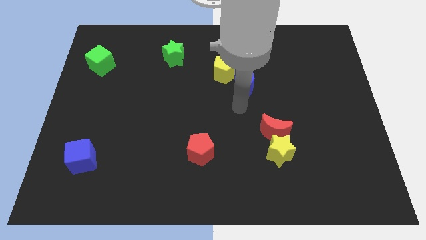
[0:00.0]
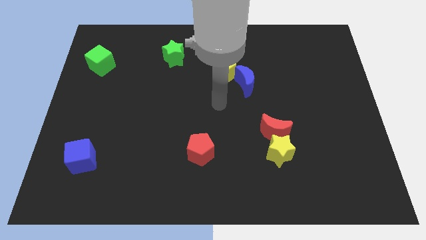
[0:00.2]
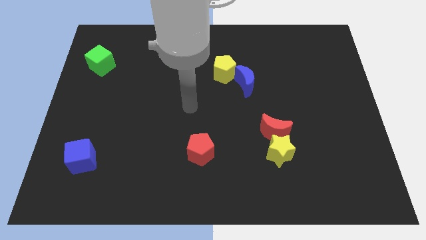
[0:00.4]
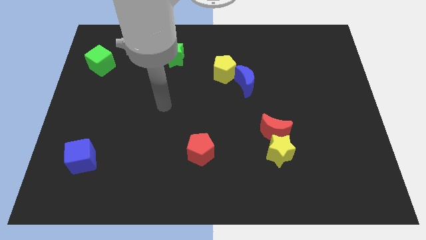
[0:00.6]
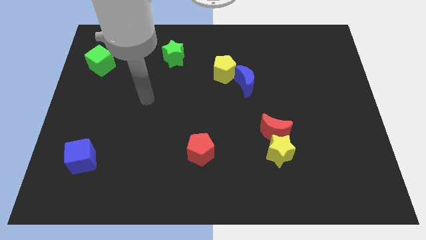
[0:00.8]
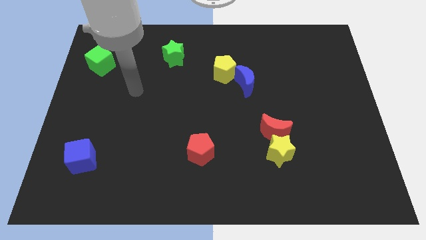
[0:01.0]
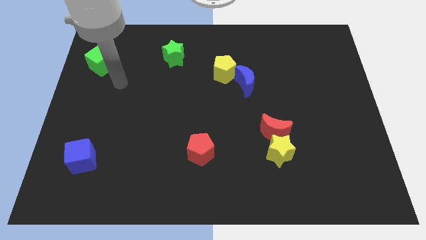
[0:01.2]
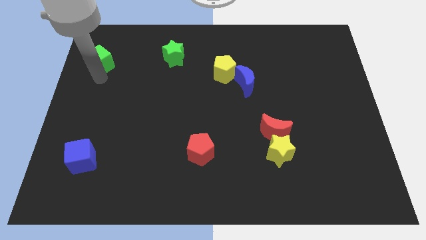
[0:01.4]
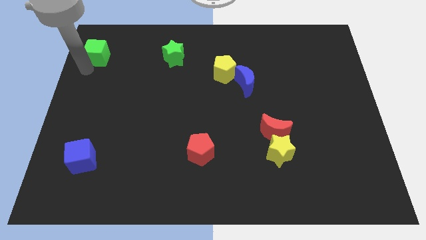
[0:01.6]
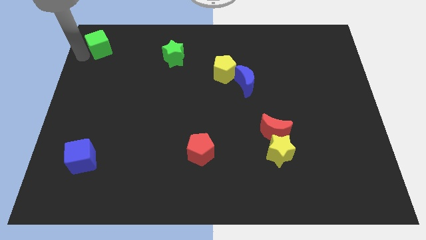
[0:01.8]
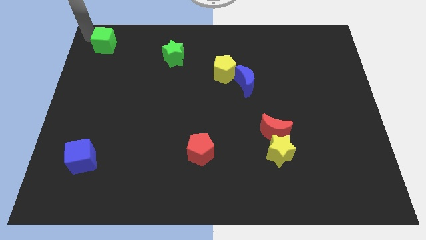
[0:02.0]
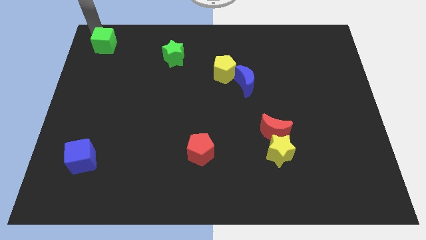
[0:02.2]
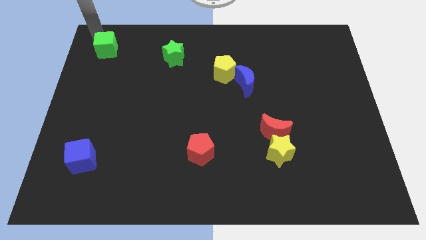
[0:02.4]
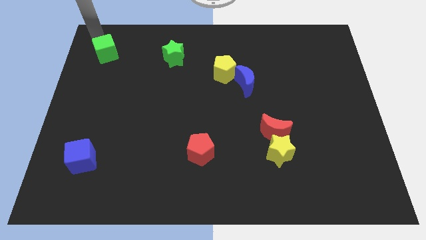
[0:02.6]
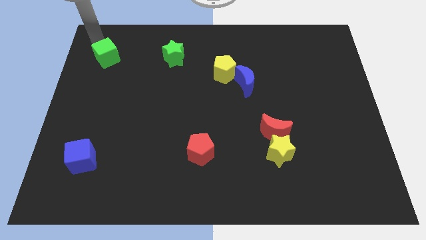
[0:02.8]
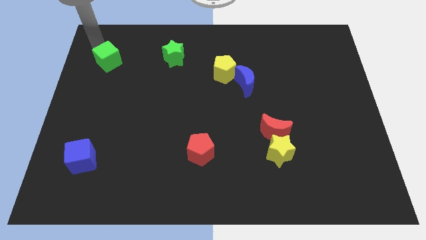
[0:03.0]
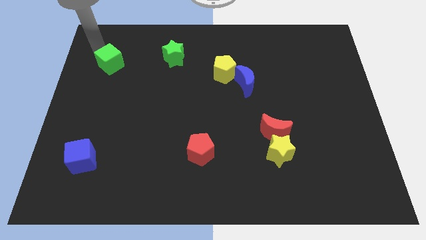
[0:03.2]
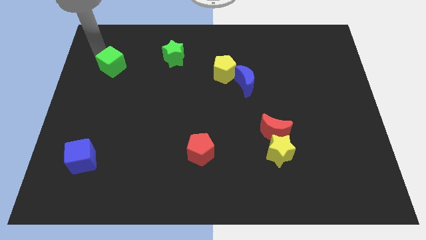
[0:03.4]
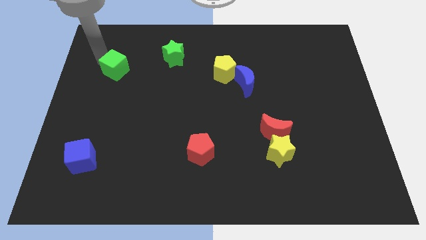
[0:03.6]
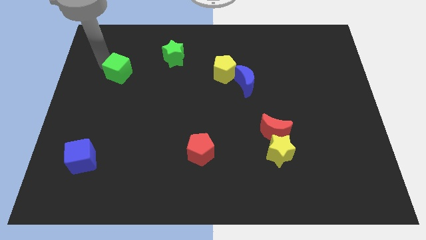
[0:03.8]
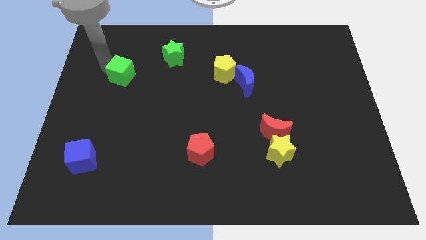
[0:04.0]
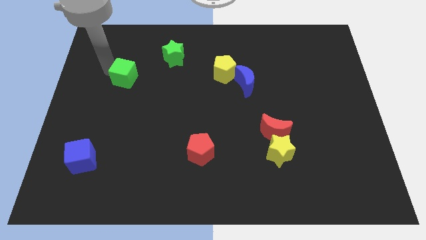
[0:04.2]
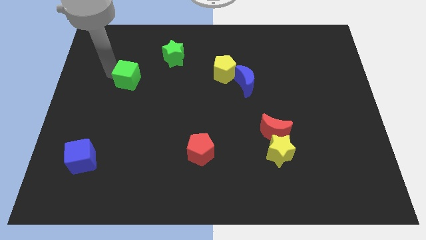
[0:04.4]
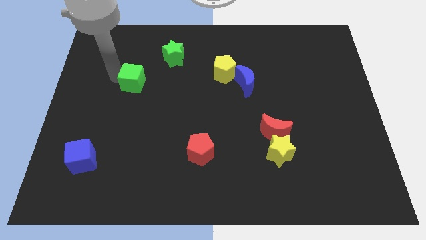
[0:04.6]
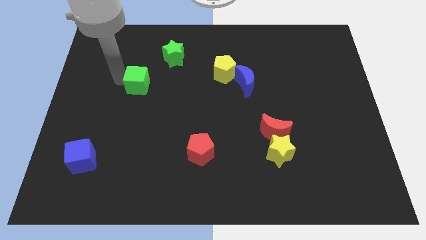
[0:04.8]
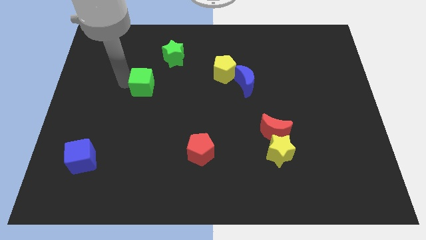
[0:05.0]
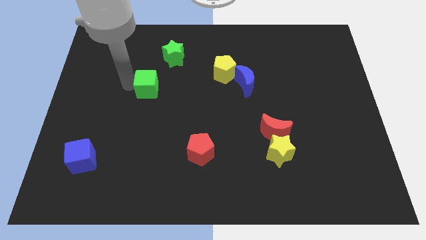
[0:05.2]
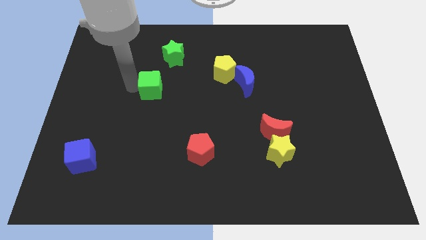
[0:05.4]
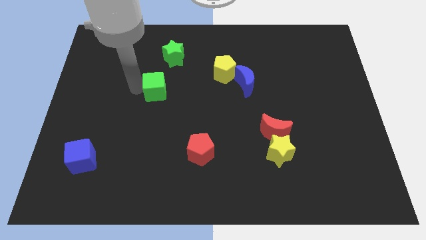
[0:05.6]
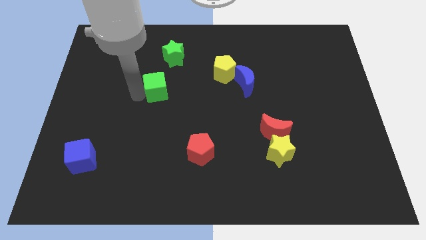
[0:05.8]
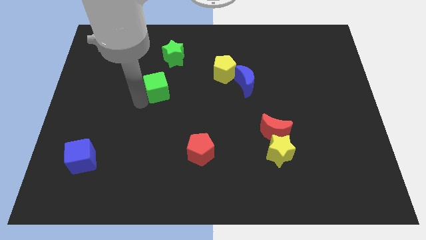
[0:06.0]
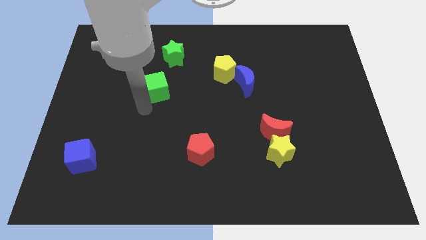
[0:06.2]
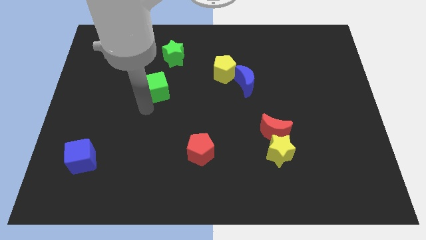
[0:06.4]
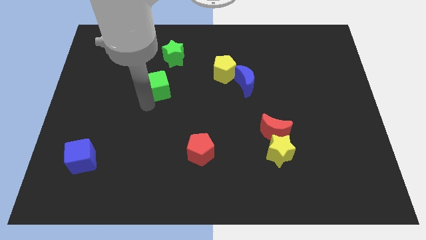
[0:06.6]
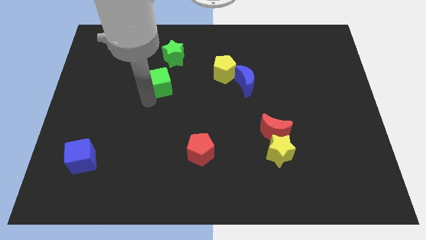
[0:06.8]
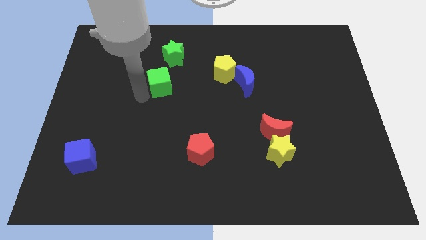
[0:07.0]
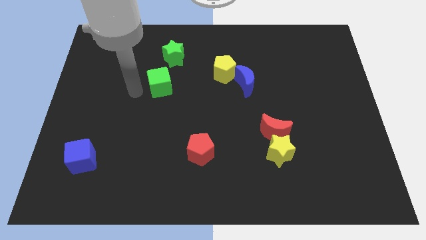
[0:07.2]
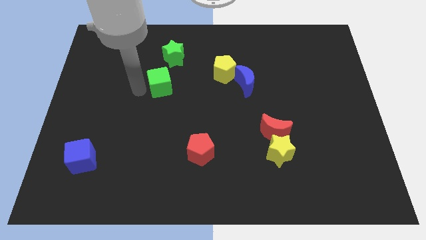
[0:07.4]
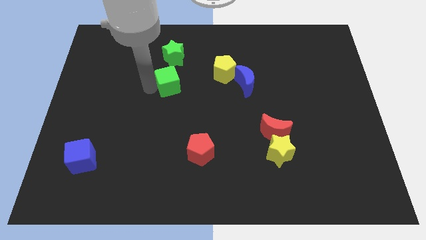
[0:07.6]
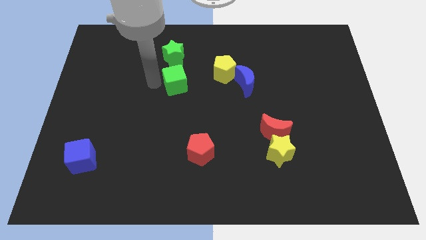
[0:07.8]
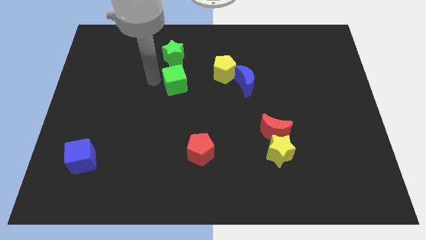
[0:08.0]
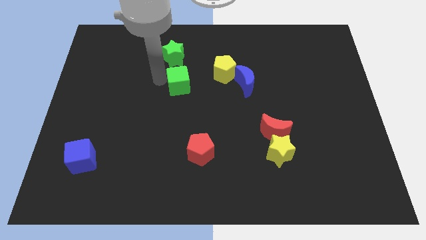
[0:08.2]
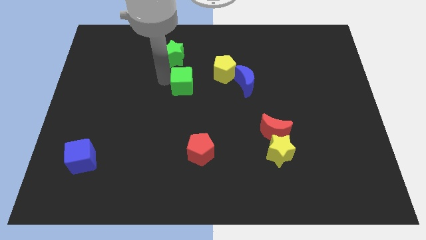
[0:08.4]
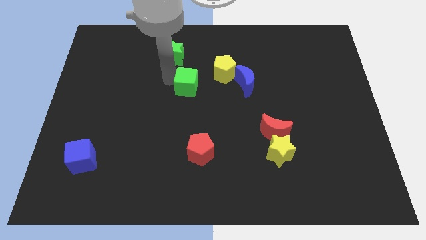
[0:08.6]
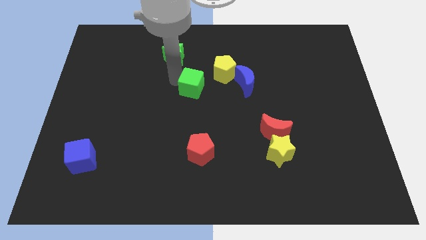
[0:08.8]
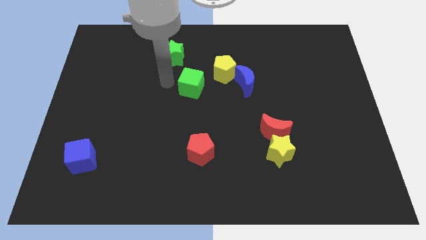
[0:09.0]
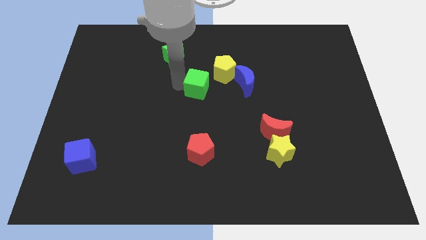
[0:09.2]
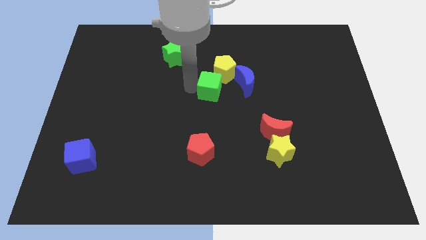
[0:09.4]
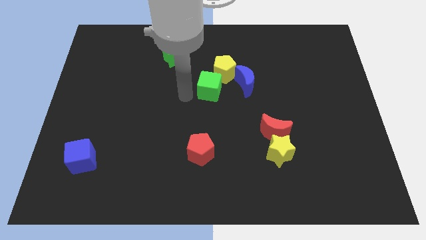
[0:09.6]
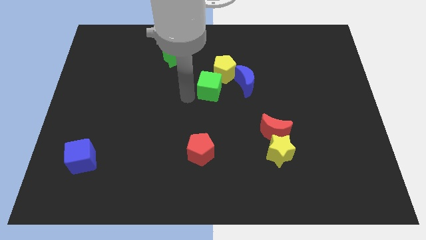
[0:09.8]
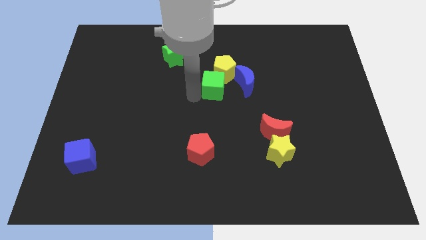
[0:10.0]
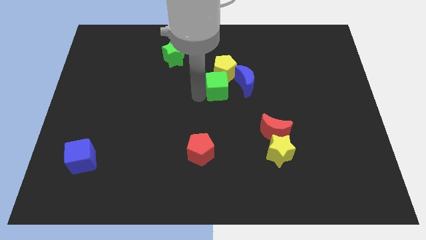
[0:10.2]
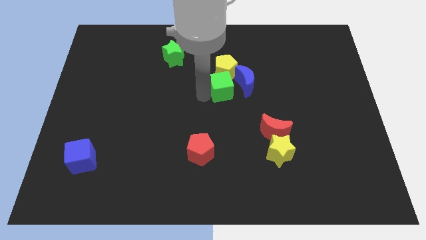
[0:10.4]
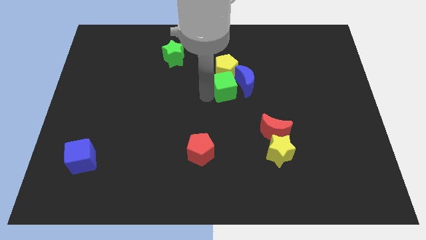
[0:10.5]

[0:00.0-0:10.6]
push the green cube close to the blue moon

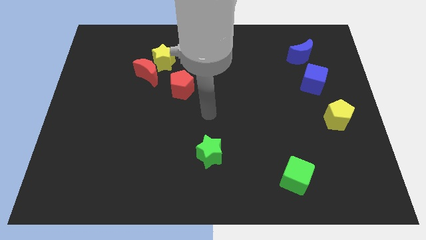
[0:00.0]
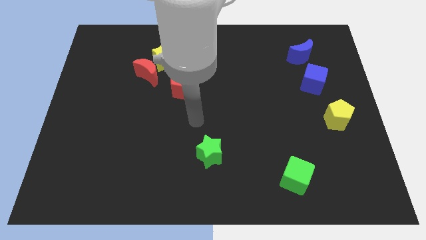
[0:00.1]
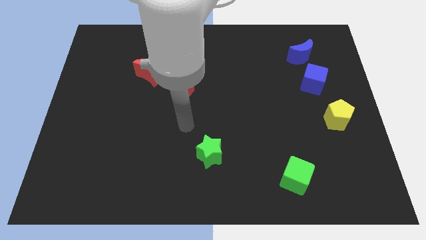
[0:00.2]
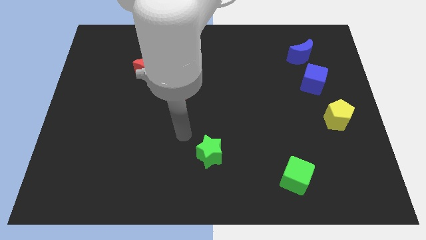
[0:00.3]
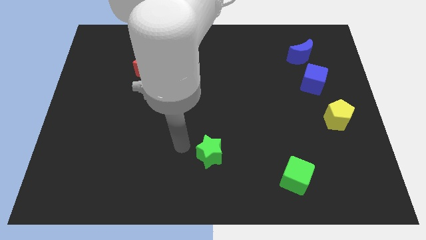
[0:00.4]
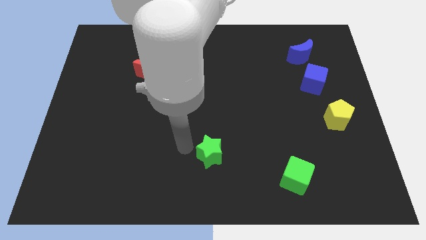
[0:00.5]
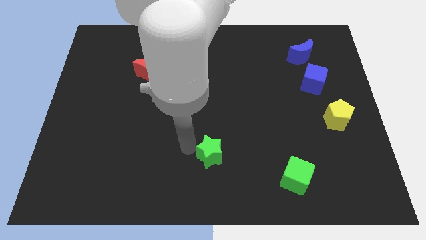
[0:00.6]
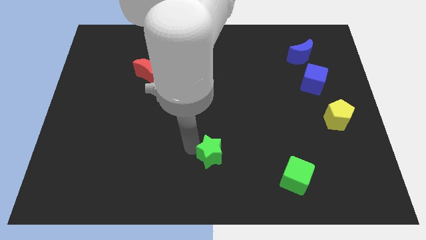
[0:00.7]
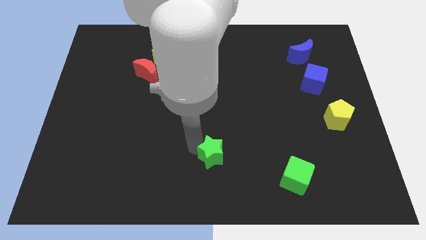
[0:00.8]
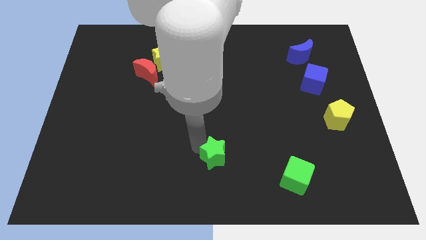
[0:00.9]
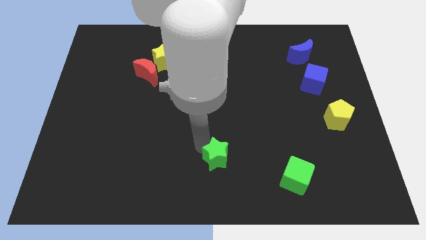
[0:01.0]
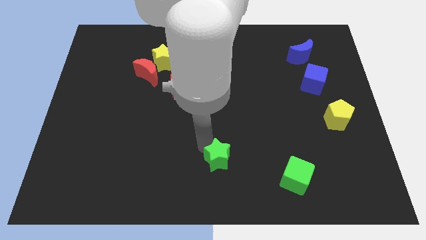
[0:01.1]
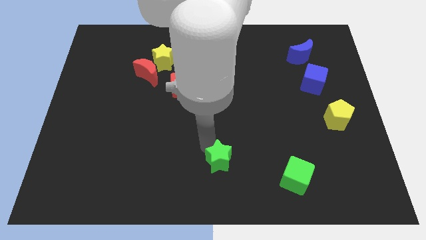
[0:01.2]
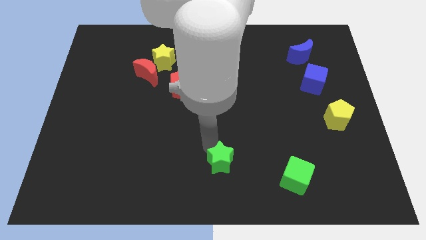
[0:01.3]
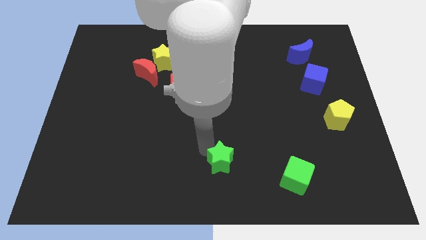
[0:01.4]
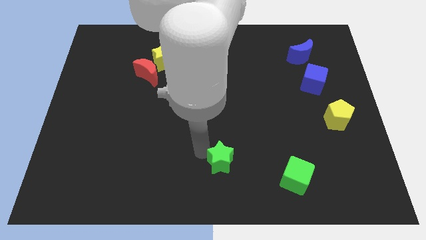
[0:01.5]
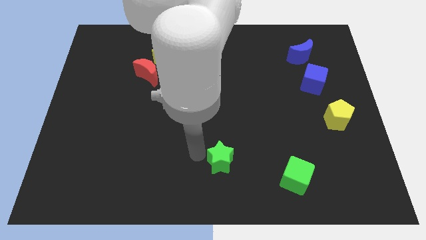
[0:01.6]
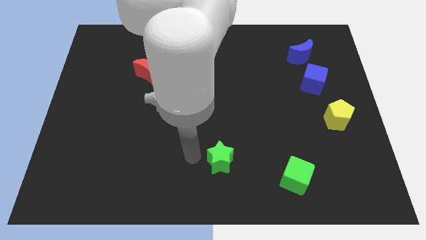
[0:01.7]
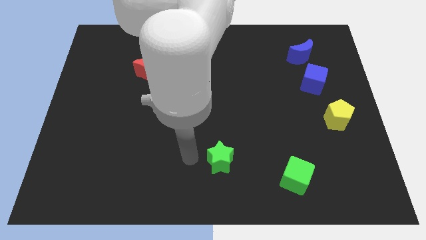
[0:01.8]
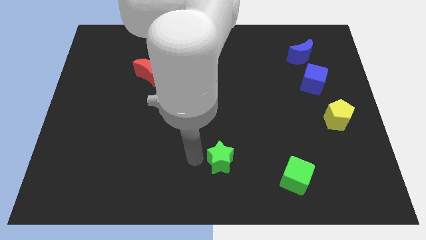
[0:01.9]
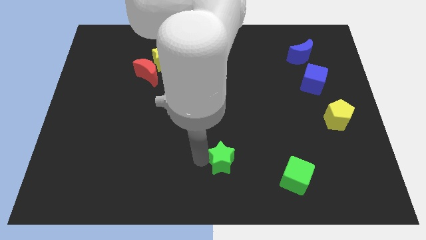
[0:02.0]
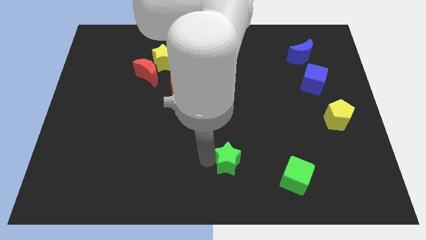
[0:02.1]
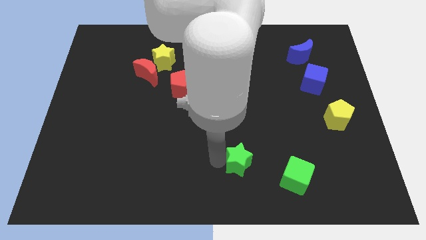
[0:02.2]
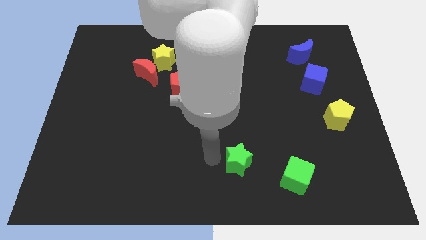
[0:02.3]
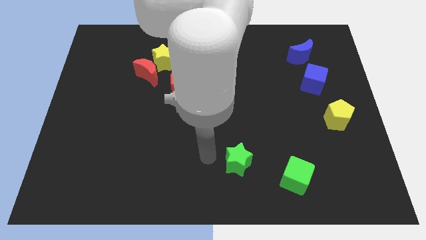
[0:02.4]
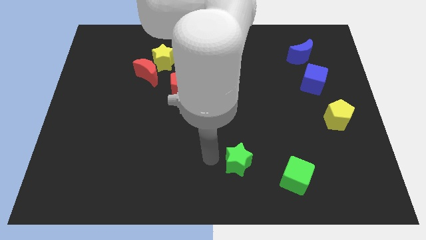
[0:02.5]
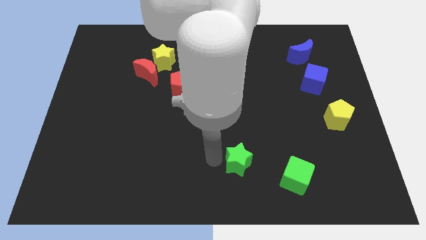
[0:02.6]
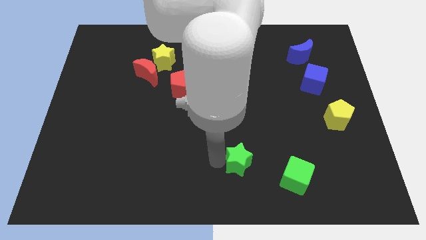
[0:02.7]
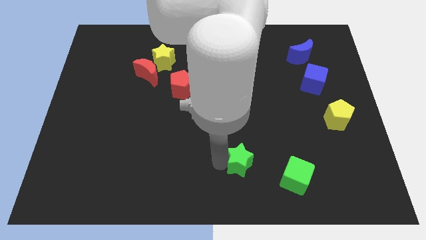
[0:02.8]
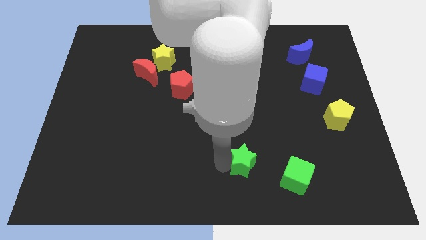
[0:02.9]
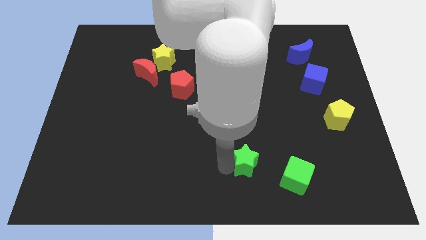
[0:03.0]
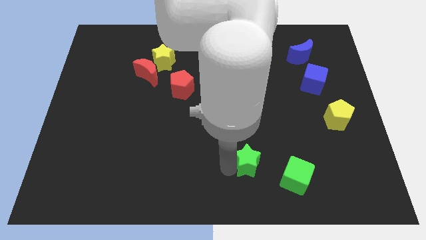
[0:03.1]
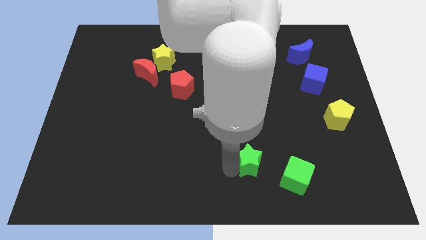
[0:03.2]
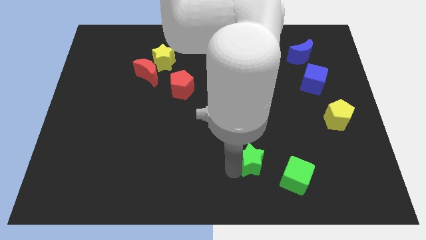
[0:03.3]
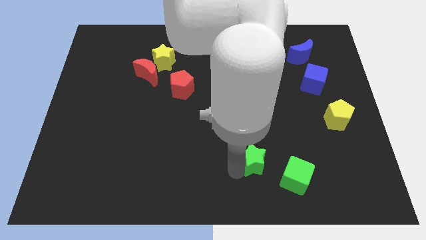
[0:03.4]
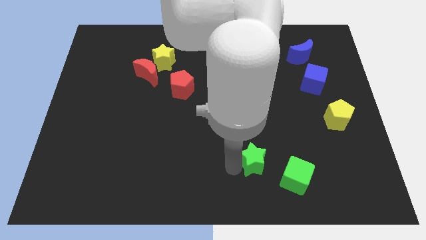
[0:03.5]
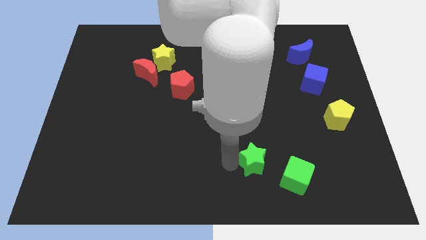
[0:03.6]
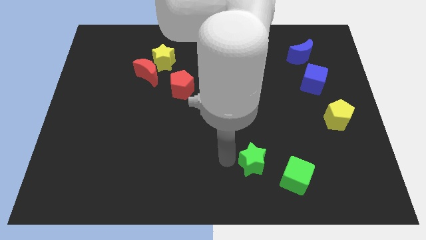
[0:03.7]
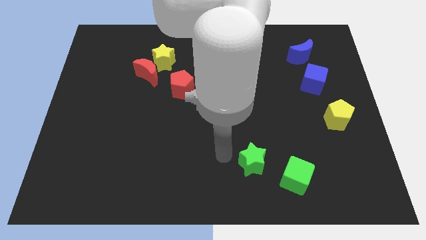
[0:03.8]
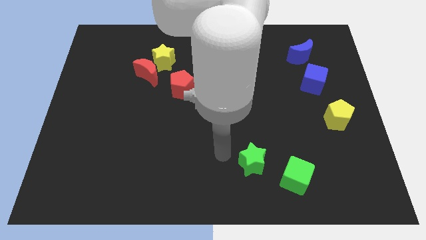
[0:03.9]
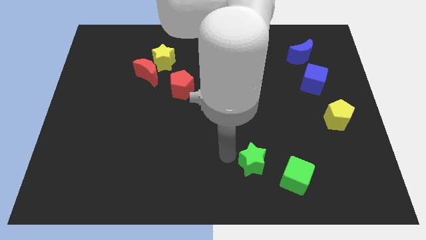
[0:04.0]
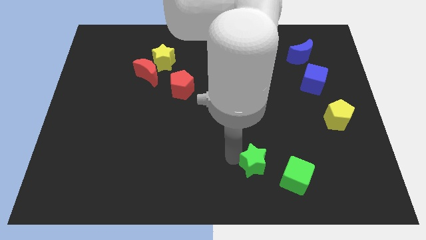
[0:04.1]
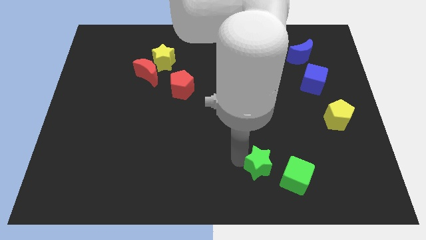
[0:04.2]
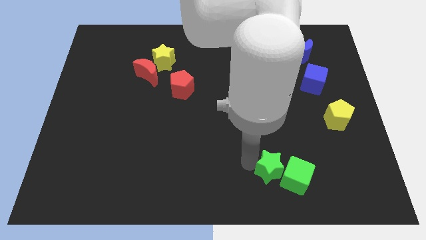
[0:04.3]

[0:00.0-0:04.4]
move the green star to the green cube
